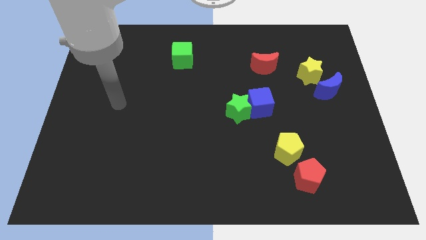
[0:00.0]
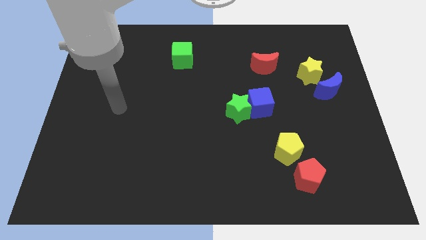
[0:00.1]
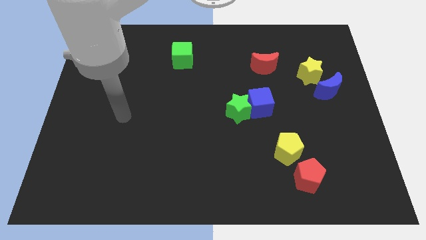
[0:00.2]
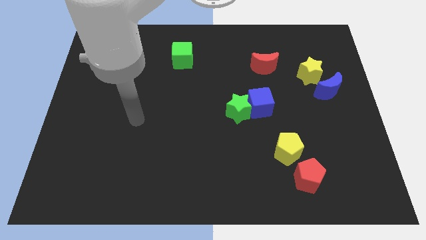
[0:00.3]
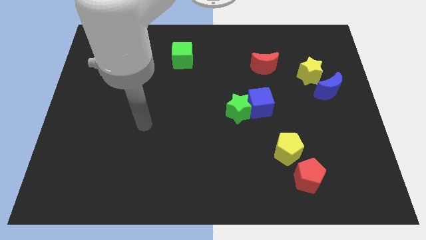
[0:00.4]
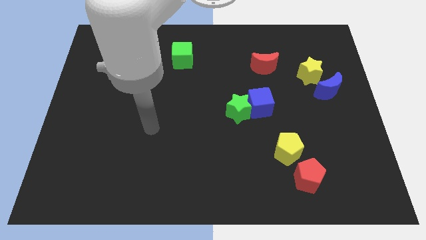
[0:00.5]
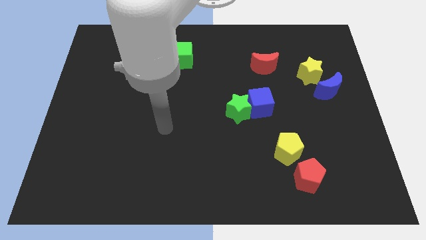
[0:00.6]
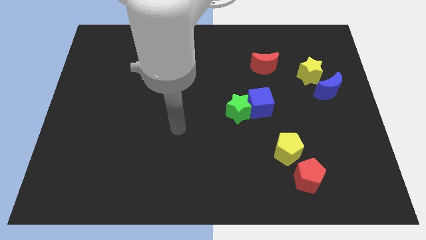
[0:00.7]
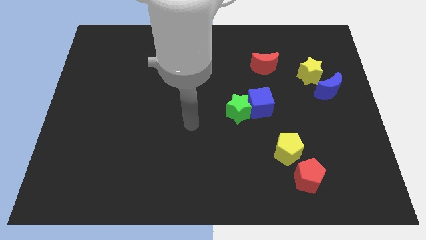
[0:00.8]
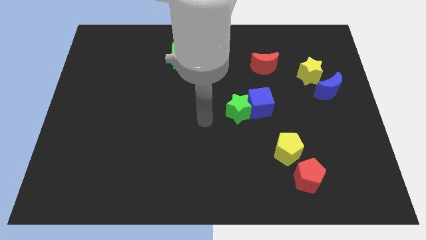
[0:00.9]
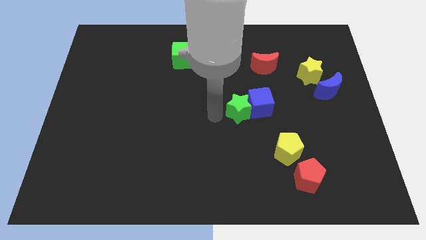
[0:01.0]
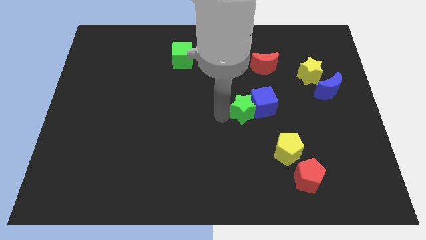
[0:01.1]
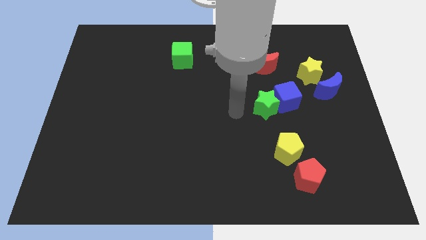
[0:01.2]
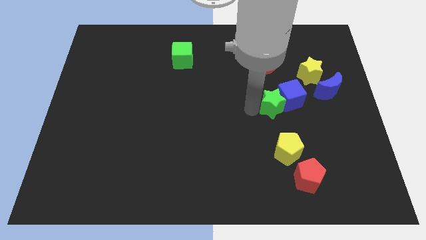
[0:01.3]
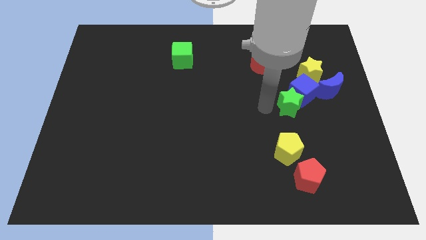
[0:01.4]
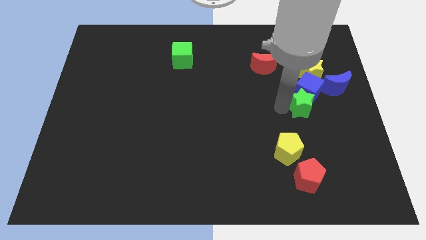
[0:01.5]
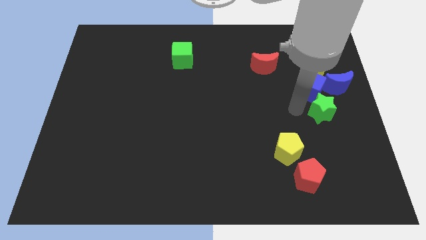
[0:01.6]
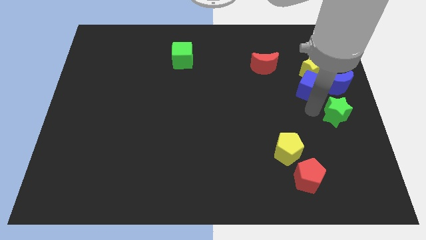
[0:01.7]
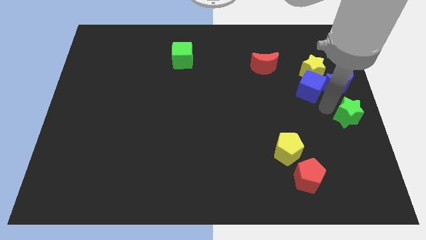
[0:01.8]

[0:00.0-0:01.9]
move the blue cube away from the green star

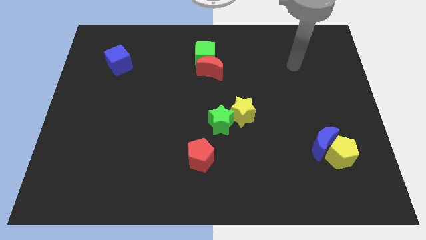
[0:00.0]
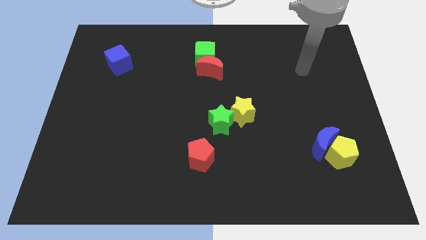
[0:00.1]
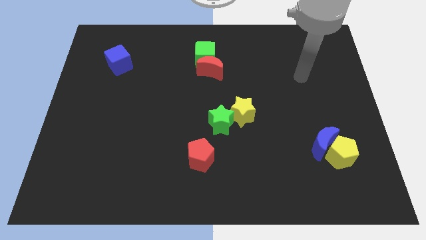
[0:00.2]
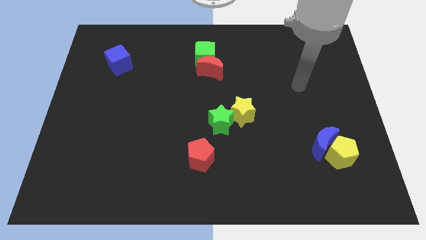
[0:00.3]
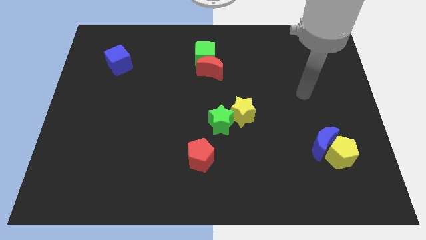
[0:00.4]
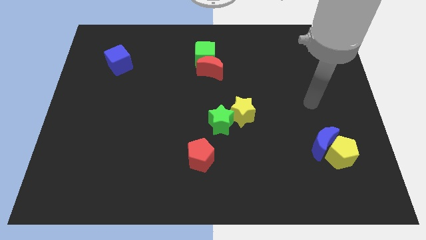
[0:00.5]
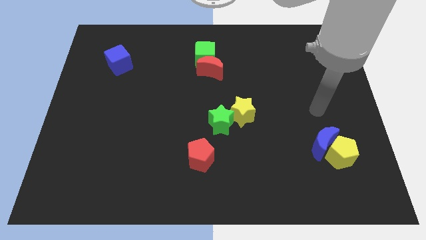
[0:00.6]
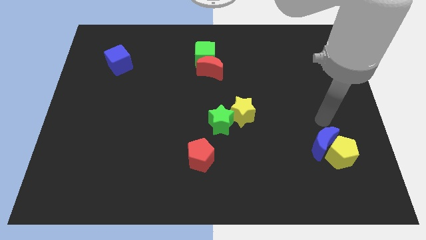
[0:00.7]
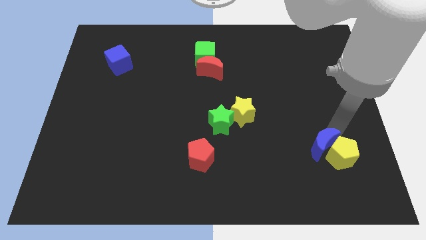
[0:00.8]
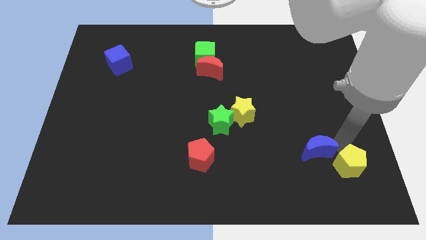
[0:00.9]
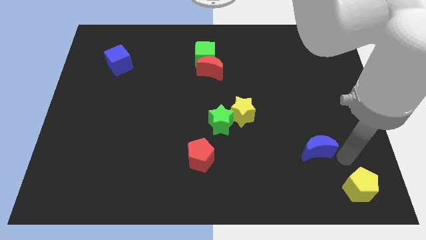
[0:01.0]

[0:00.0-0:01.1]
pull the blue moon apart from the yellow pentagon

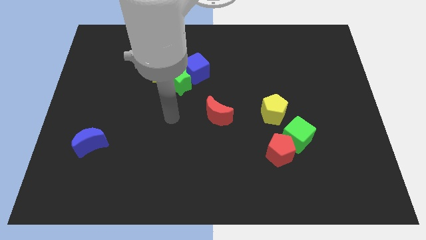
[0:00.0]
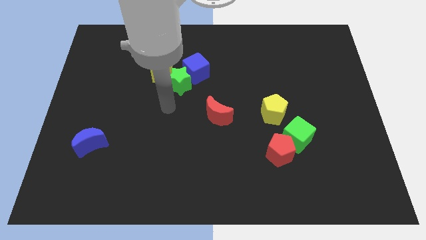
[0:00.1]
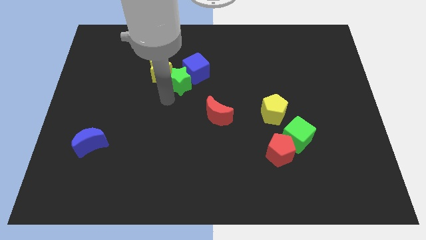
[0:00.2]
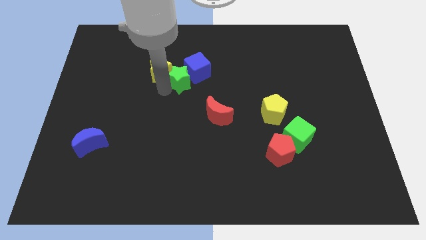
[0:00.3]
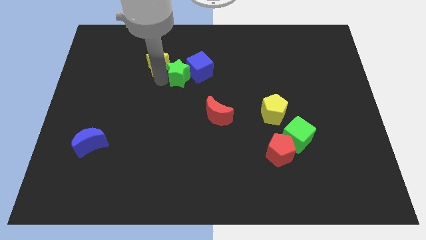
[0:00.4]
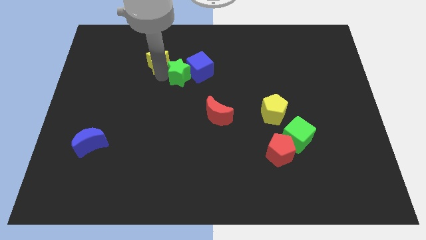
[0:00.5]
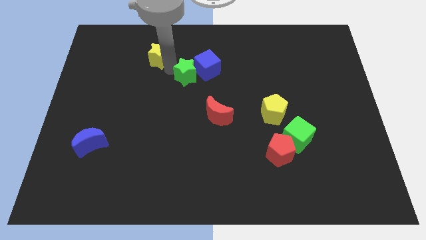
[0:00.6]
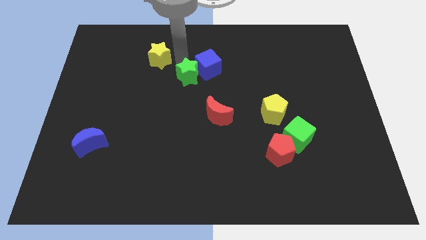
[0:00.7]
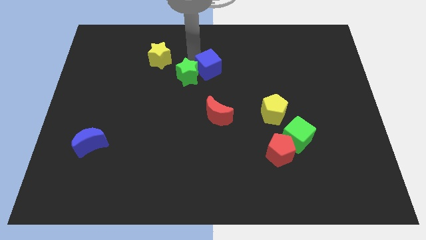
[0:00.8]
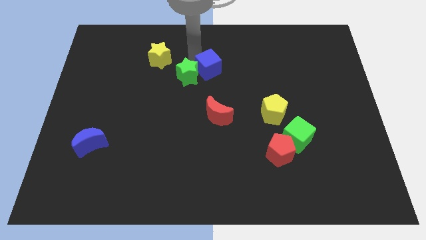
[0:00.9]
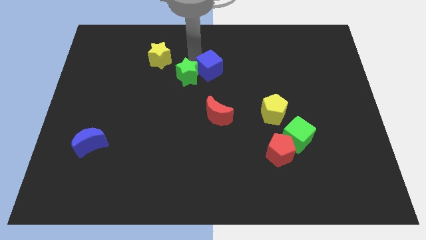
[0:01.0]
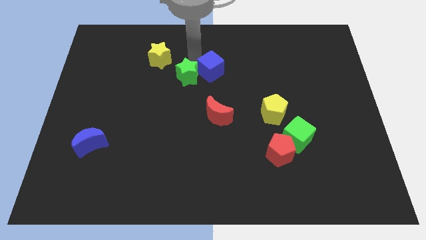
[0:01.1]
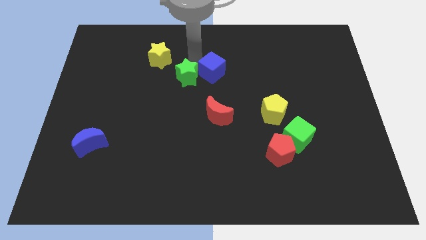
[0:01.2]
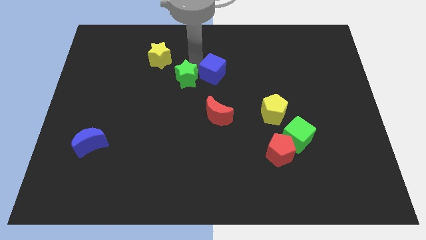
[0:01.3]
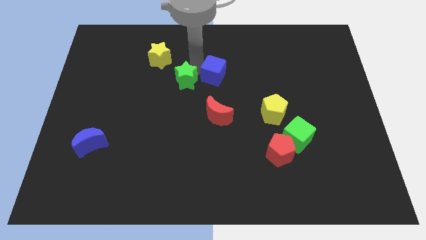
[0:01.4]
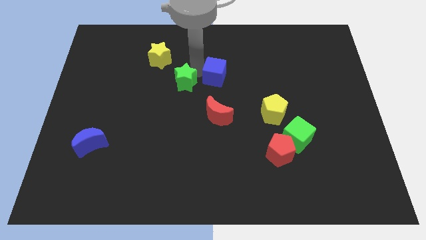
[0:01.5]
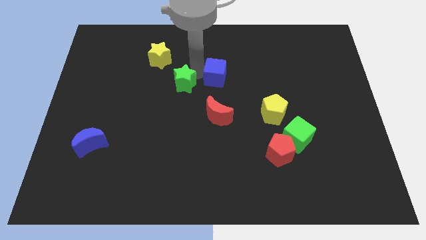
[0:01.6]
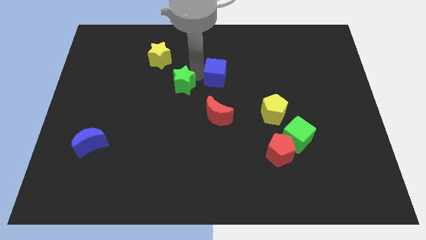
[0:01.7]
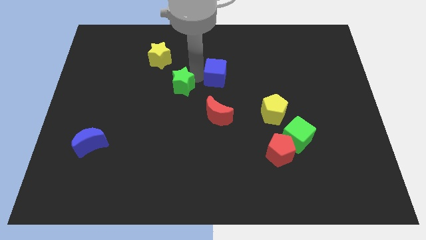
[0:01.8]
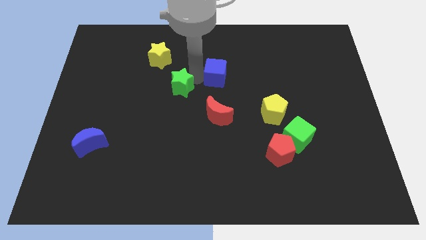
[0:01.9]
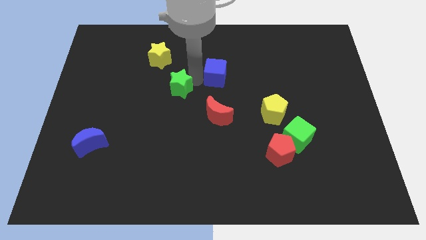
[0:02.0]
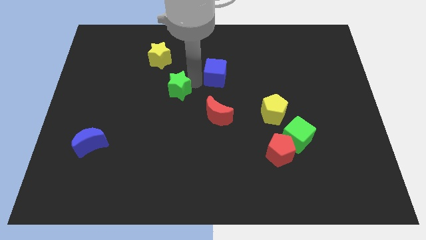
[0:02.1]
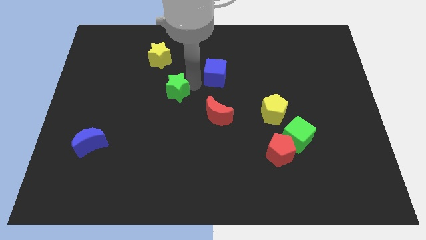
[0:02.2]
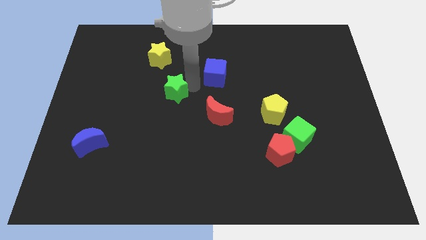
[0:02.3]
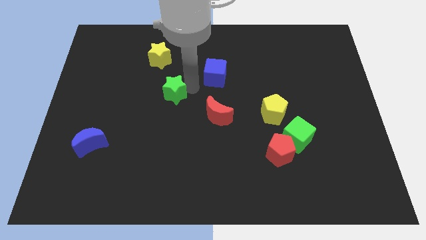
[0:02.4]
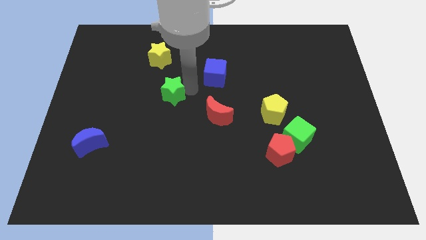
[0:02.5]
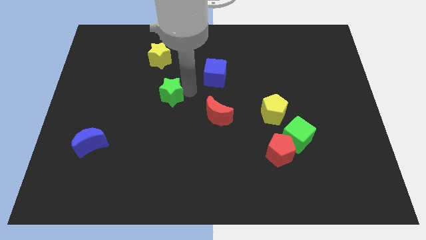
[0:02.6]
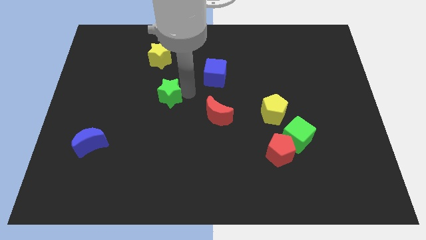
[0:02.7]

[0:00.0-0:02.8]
separate the green star from the blue cube and yellow star

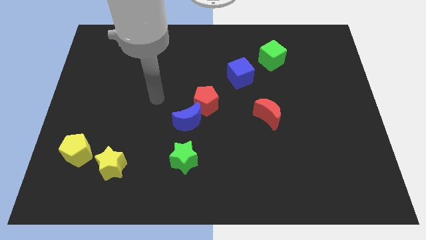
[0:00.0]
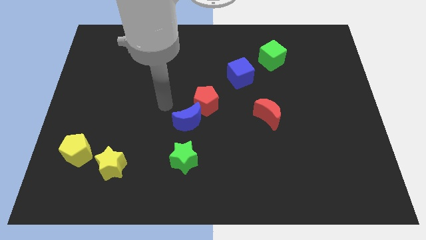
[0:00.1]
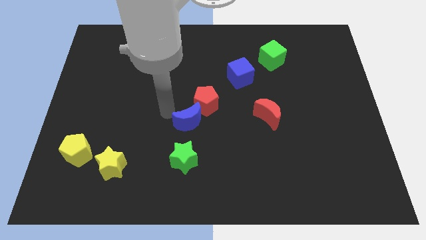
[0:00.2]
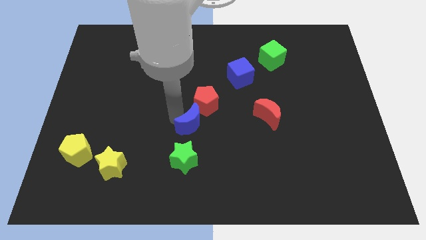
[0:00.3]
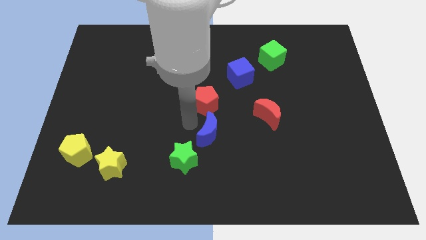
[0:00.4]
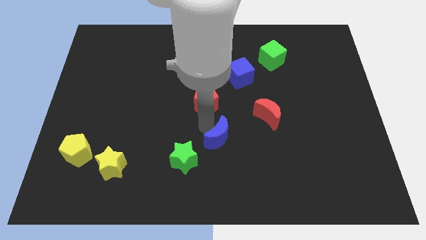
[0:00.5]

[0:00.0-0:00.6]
move the red pentagon away from the blue moon

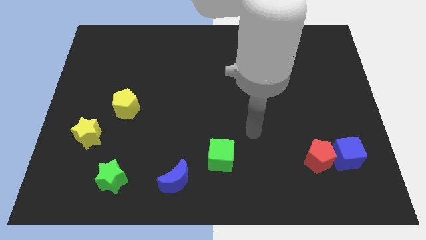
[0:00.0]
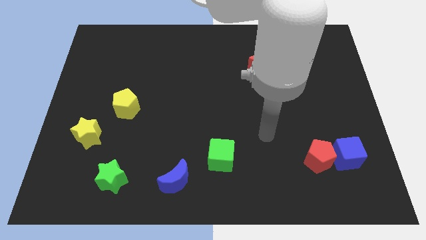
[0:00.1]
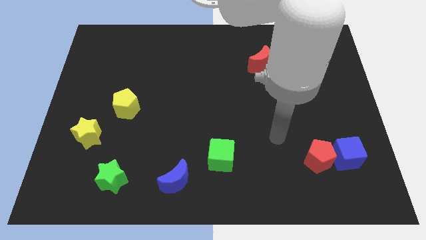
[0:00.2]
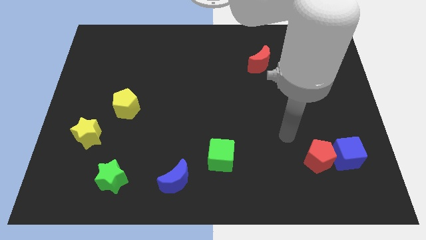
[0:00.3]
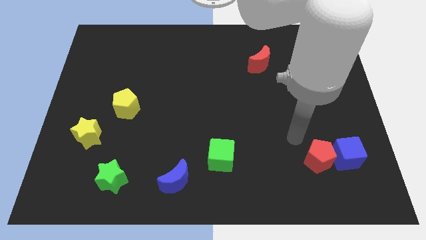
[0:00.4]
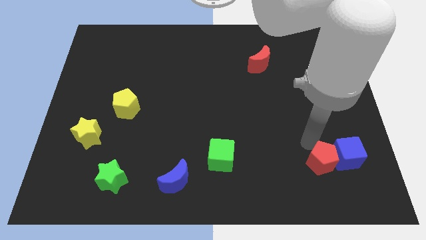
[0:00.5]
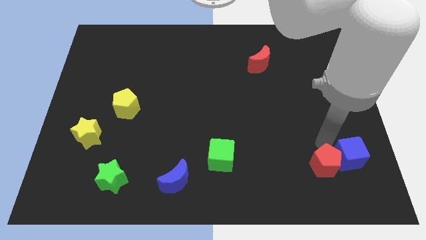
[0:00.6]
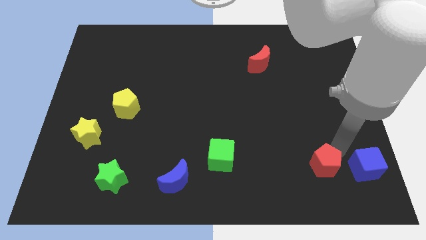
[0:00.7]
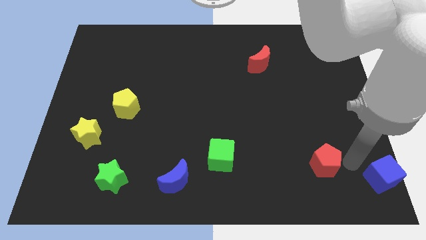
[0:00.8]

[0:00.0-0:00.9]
move the red pentagon away from the blue cube

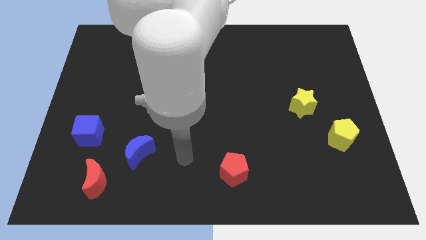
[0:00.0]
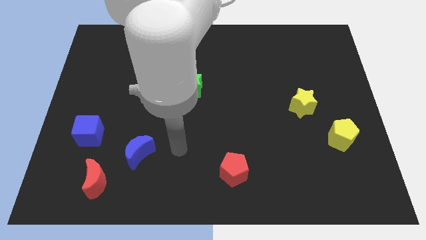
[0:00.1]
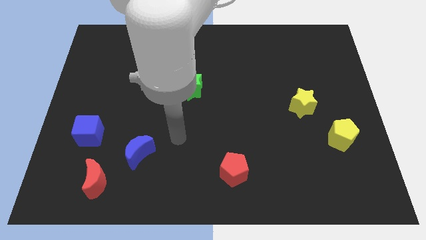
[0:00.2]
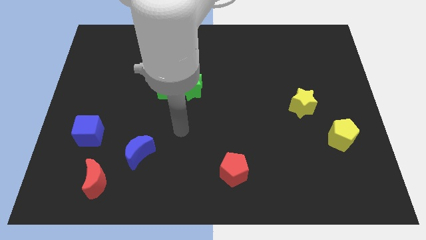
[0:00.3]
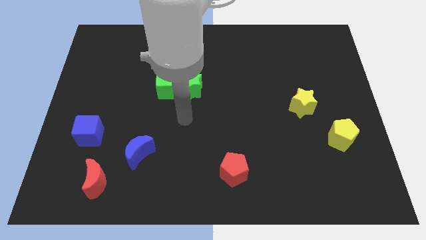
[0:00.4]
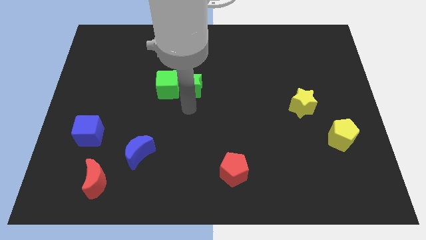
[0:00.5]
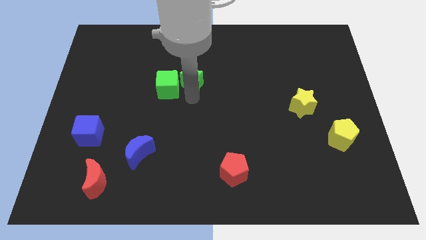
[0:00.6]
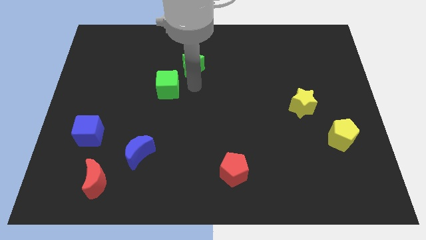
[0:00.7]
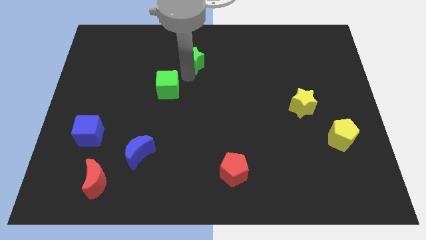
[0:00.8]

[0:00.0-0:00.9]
pull the green cube apart from the green star

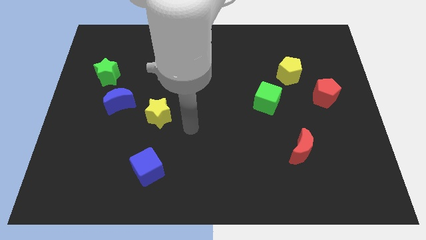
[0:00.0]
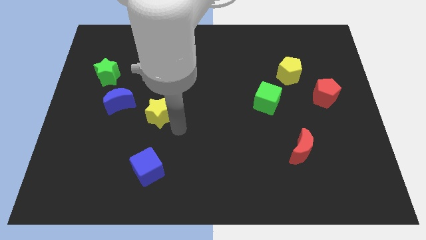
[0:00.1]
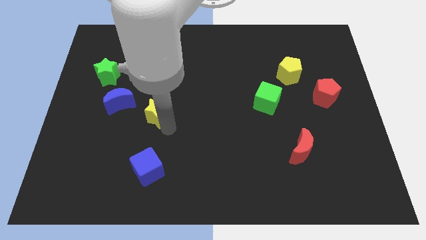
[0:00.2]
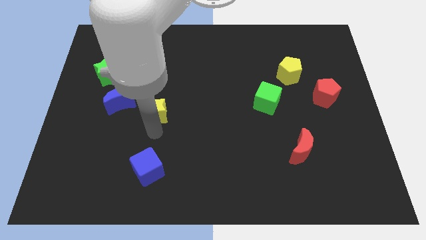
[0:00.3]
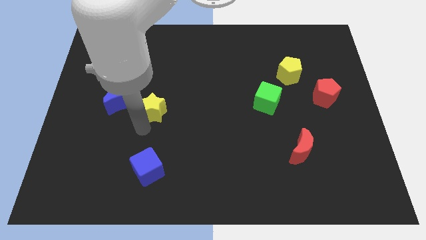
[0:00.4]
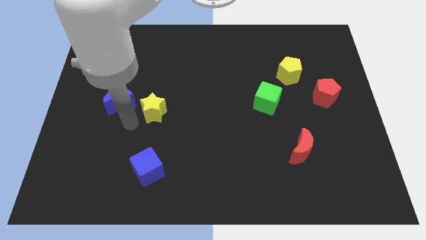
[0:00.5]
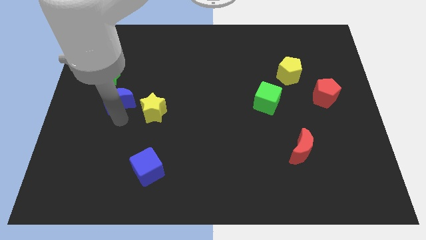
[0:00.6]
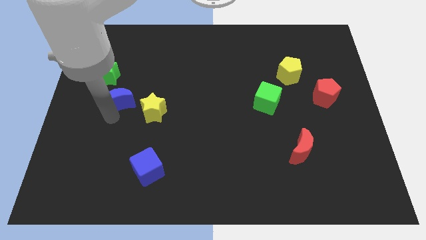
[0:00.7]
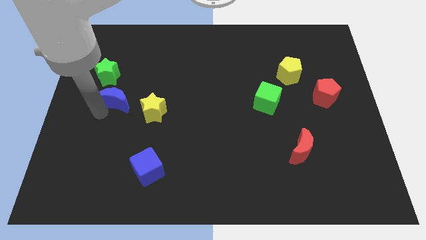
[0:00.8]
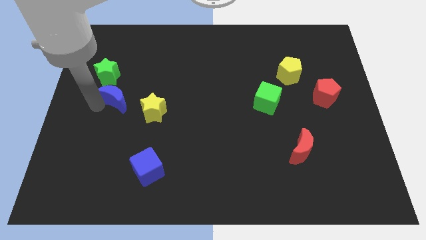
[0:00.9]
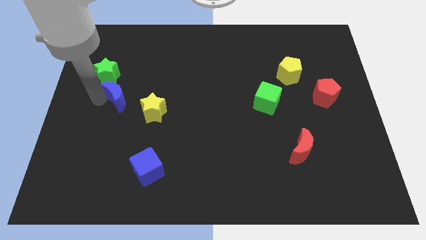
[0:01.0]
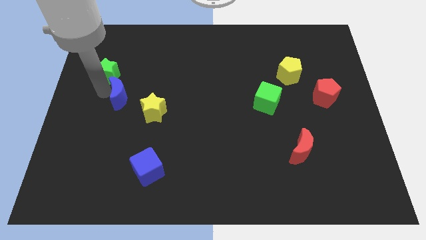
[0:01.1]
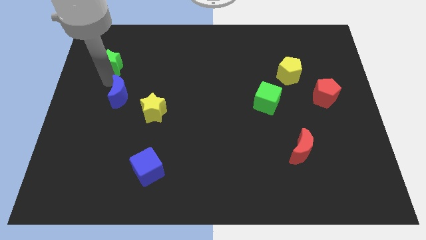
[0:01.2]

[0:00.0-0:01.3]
separate the blue moon from the green star
